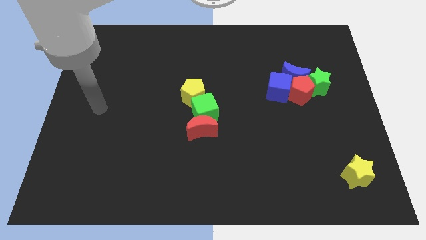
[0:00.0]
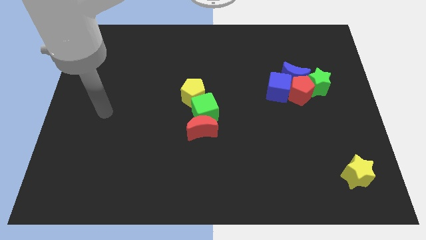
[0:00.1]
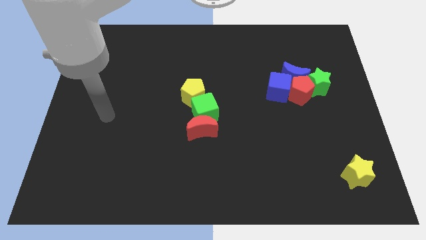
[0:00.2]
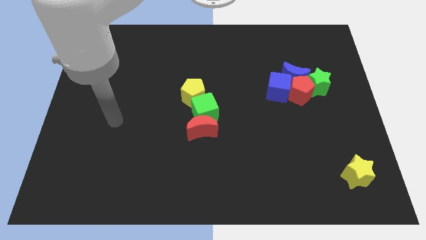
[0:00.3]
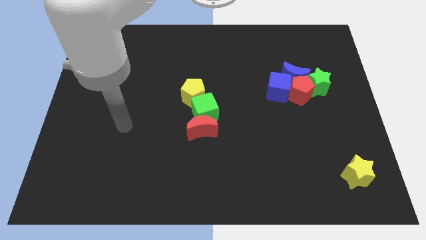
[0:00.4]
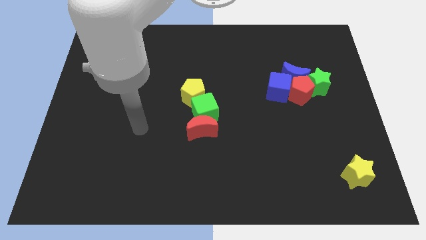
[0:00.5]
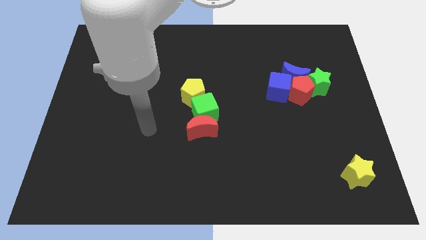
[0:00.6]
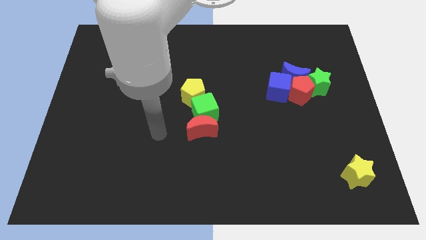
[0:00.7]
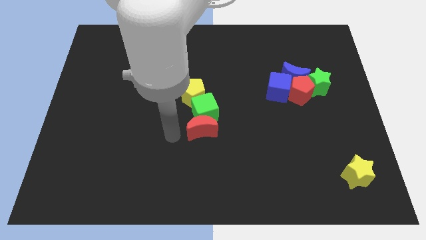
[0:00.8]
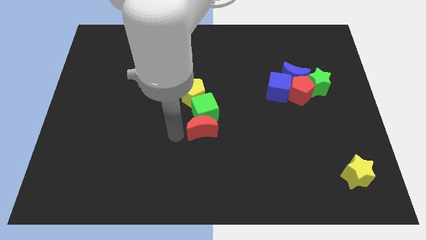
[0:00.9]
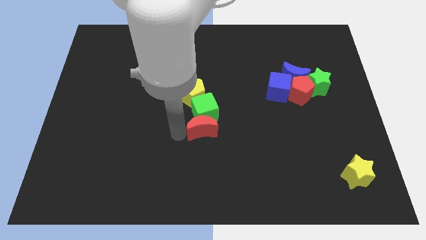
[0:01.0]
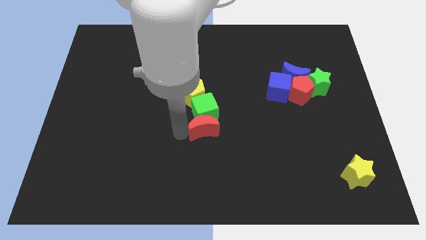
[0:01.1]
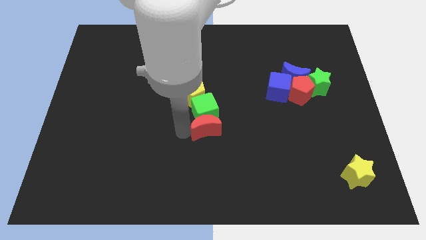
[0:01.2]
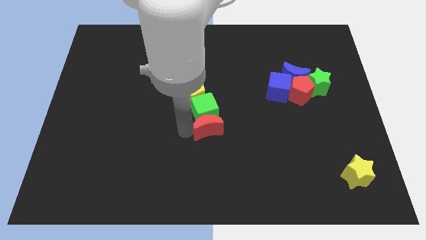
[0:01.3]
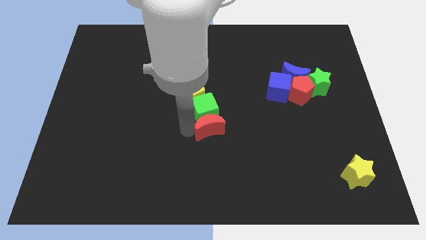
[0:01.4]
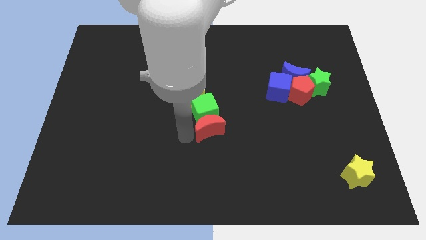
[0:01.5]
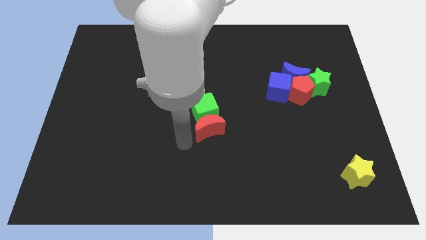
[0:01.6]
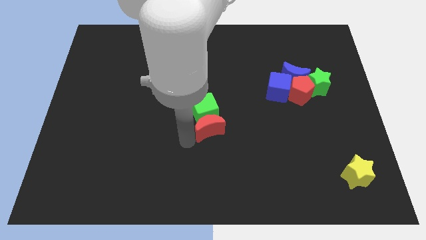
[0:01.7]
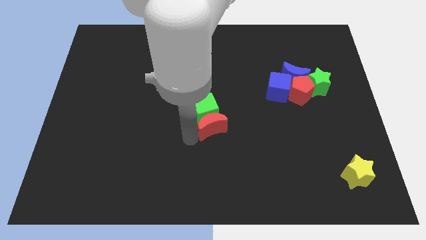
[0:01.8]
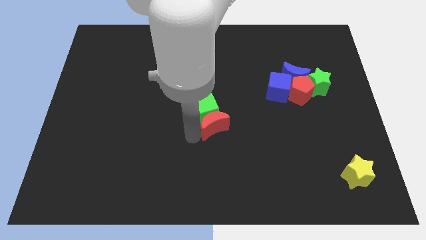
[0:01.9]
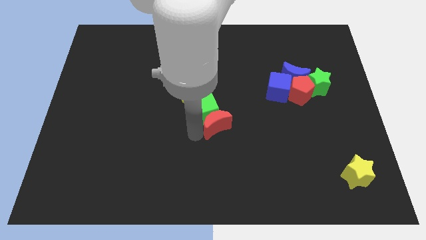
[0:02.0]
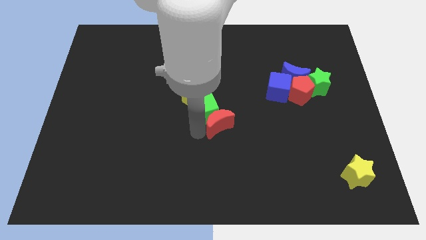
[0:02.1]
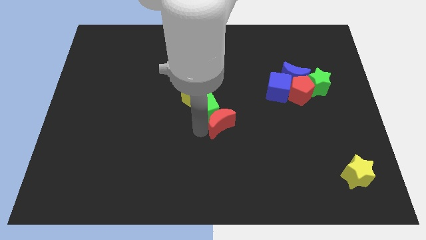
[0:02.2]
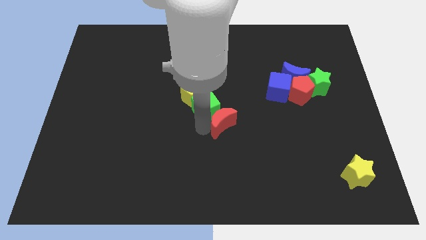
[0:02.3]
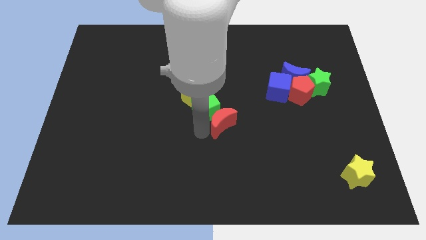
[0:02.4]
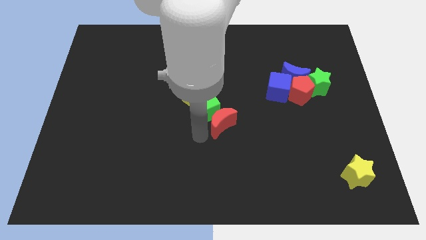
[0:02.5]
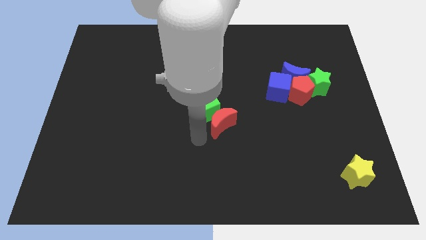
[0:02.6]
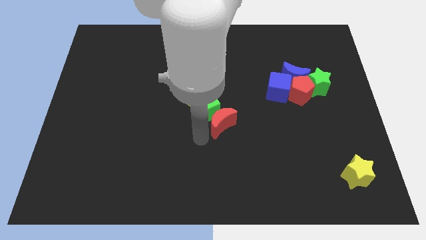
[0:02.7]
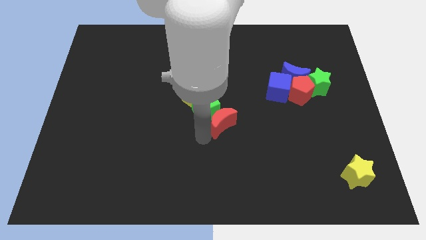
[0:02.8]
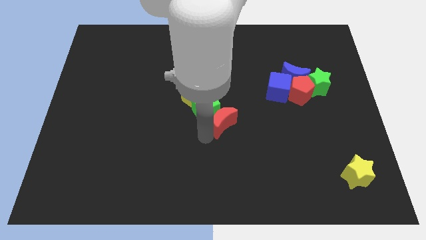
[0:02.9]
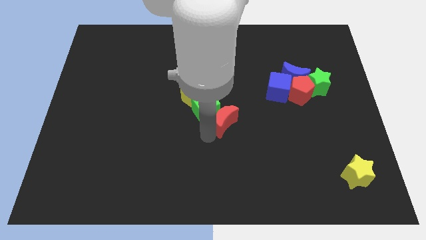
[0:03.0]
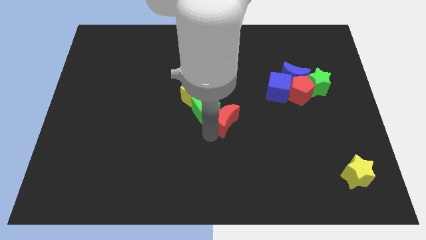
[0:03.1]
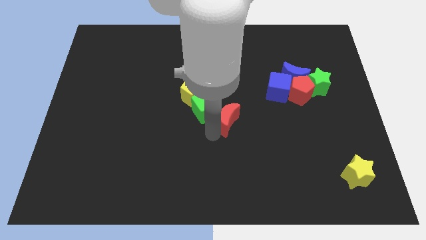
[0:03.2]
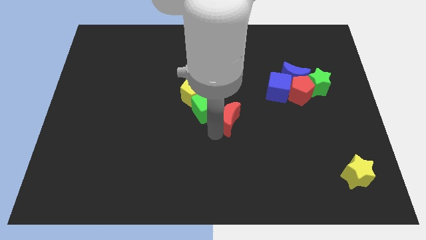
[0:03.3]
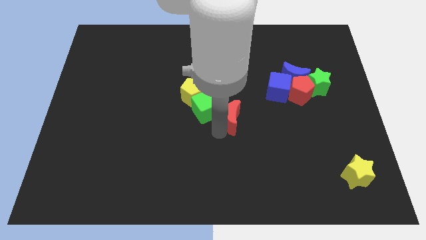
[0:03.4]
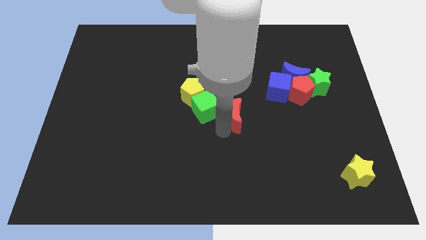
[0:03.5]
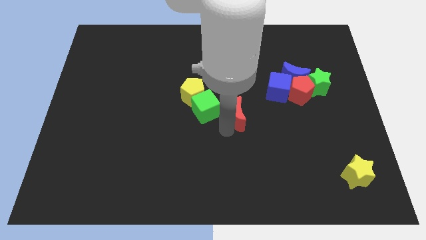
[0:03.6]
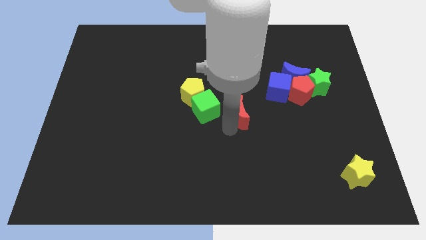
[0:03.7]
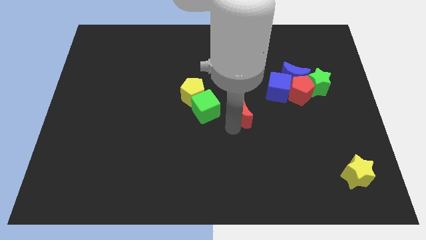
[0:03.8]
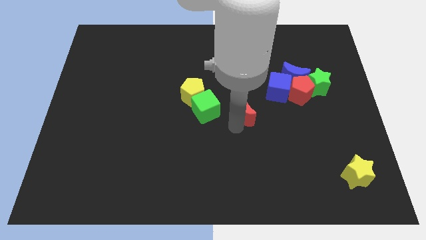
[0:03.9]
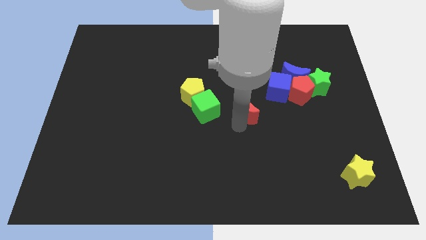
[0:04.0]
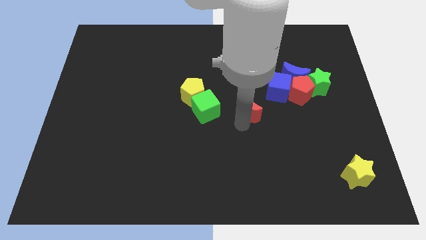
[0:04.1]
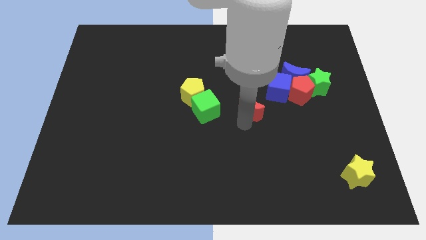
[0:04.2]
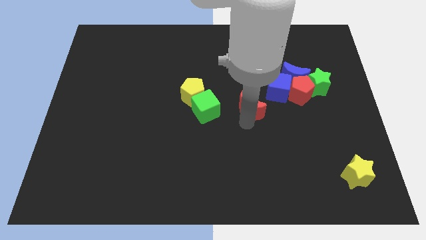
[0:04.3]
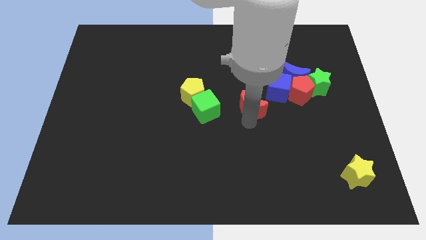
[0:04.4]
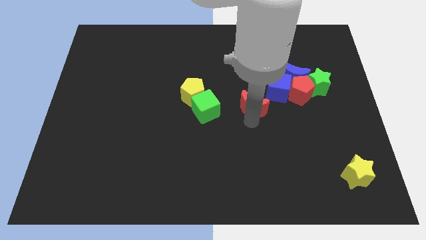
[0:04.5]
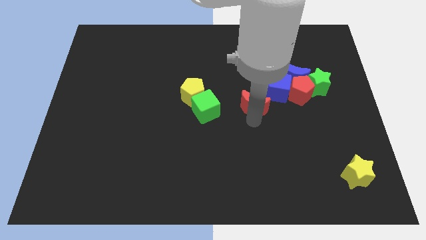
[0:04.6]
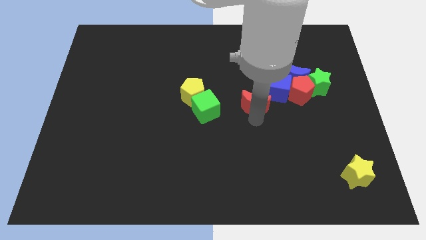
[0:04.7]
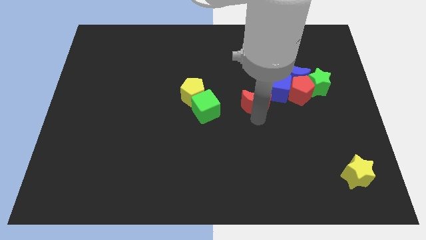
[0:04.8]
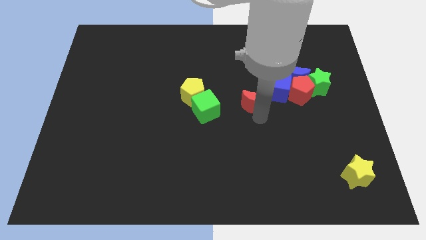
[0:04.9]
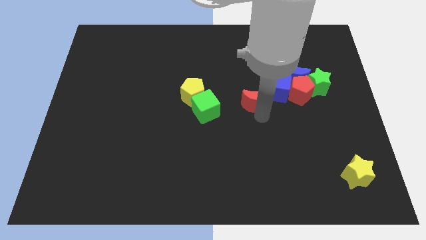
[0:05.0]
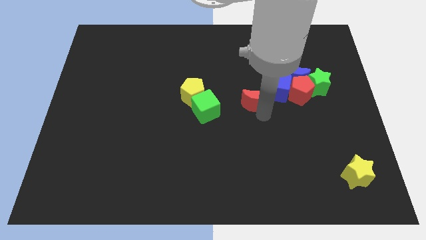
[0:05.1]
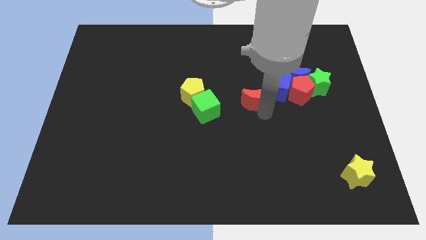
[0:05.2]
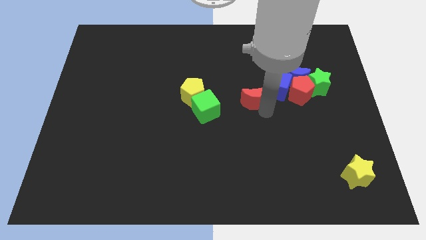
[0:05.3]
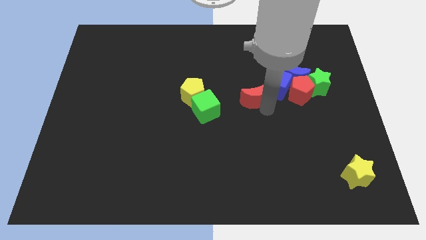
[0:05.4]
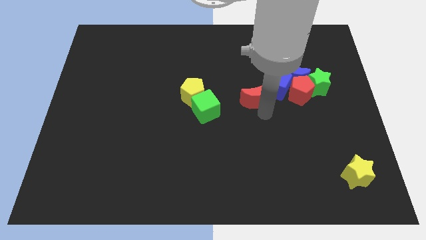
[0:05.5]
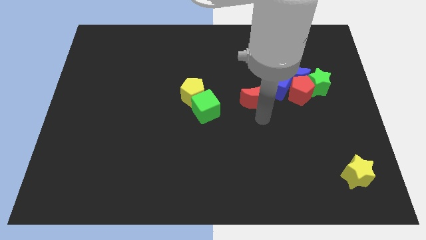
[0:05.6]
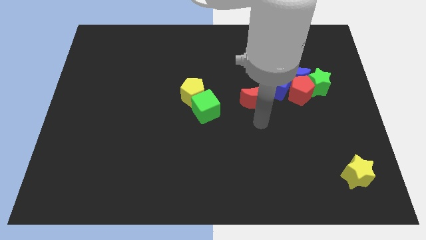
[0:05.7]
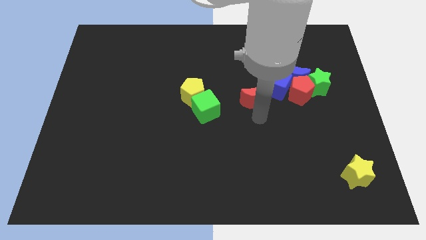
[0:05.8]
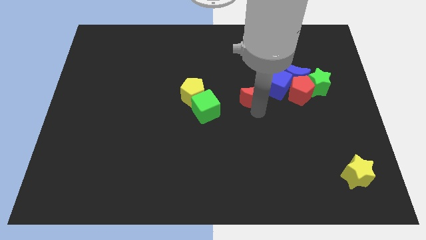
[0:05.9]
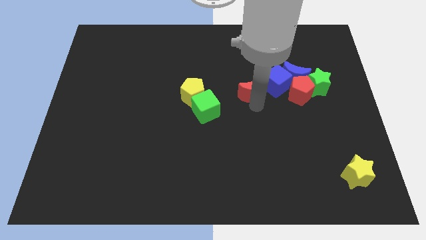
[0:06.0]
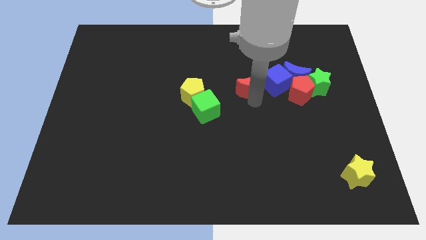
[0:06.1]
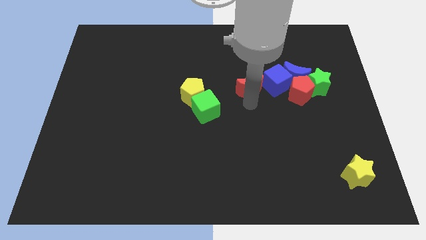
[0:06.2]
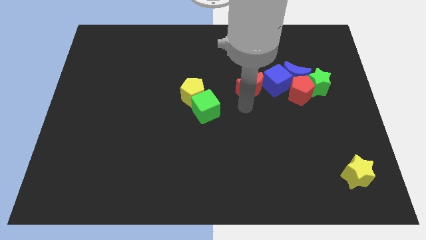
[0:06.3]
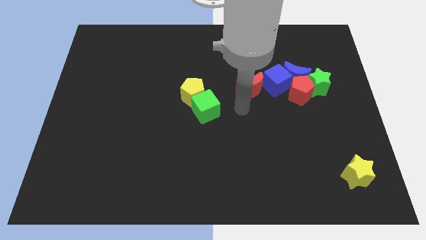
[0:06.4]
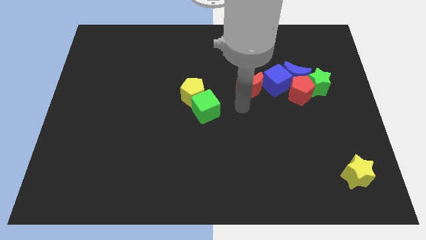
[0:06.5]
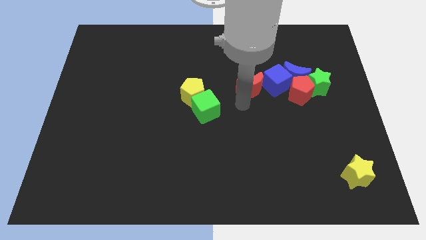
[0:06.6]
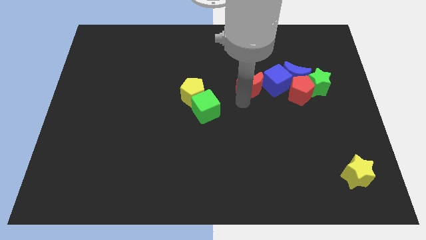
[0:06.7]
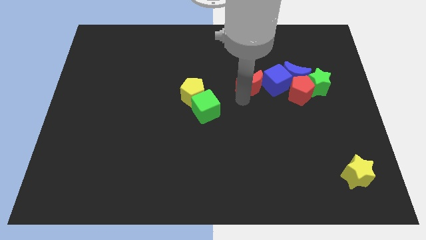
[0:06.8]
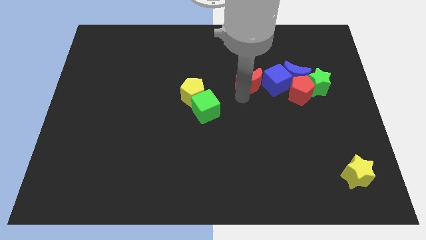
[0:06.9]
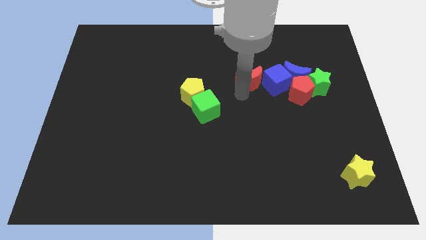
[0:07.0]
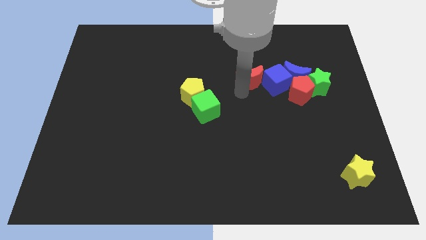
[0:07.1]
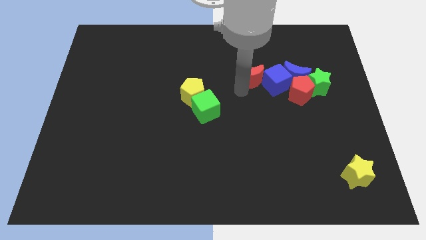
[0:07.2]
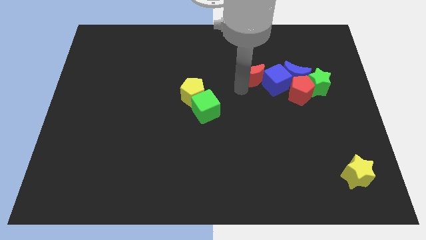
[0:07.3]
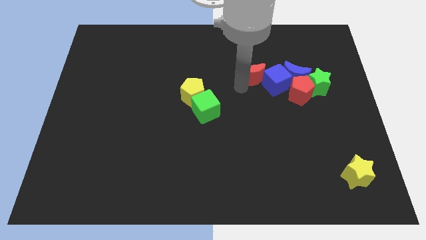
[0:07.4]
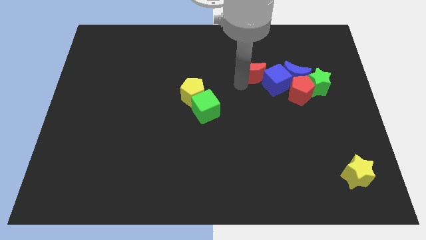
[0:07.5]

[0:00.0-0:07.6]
move the red moon diagonally up and right

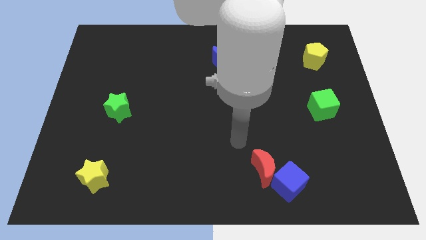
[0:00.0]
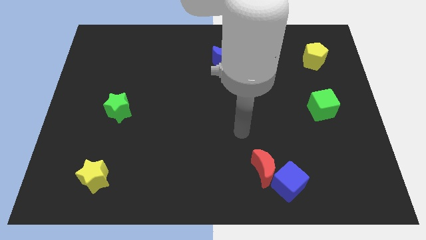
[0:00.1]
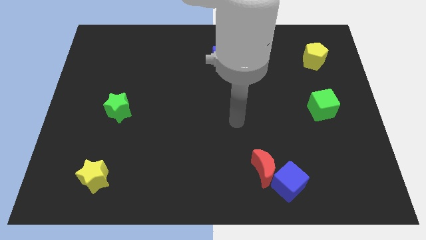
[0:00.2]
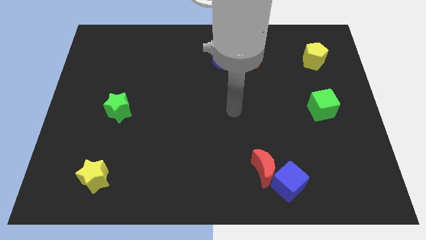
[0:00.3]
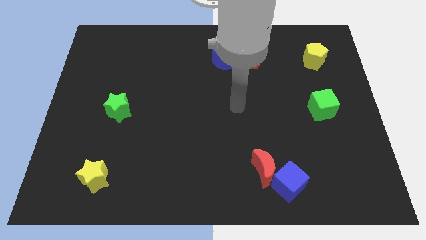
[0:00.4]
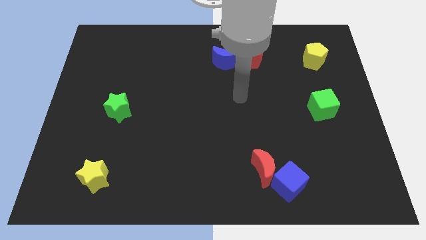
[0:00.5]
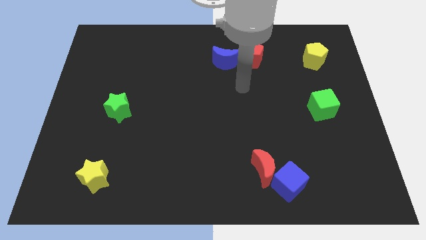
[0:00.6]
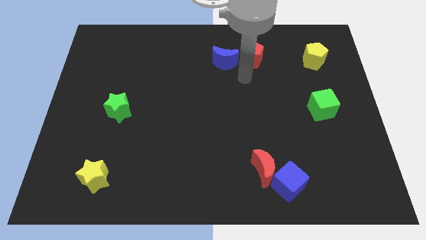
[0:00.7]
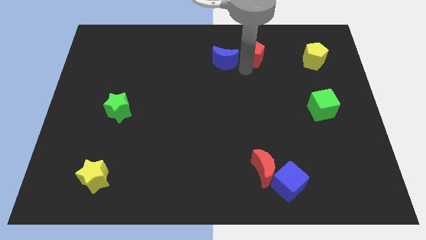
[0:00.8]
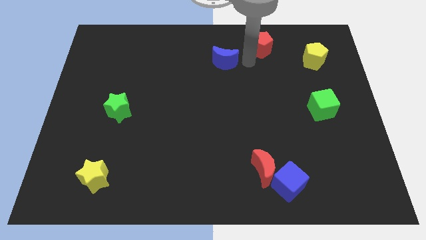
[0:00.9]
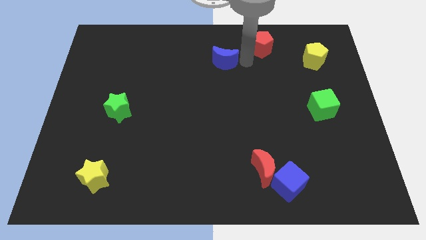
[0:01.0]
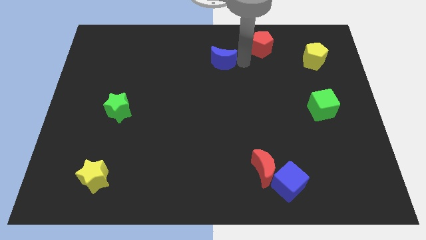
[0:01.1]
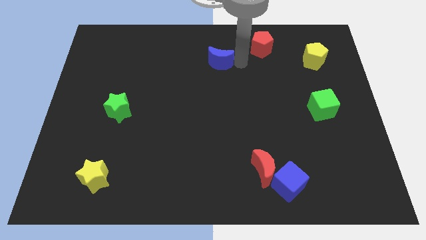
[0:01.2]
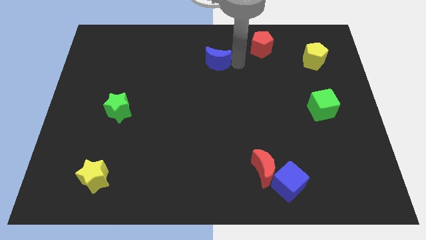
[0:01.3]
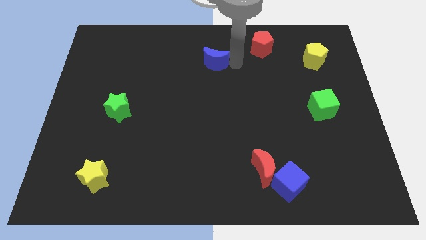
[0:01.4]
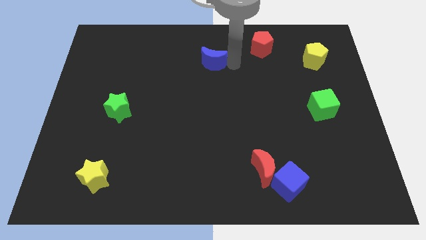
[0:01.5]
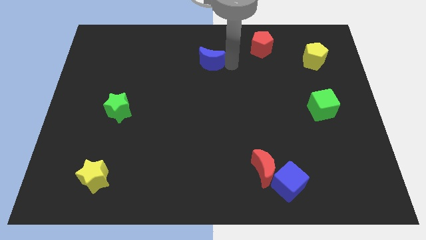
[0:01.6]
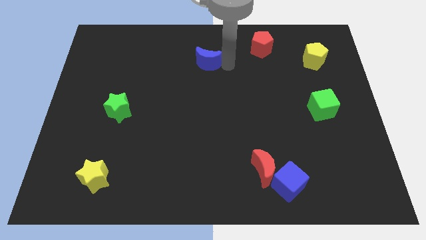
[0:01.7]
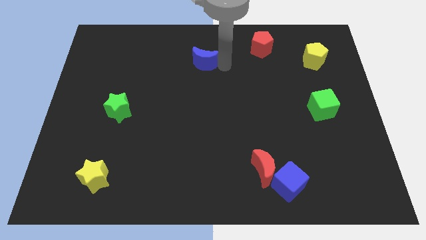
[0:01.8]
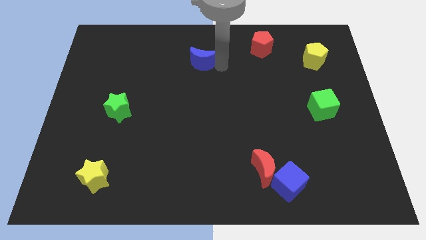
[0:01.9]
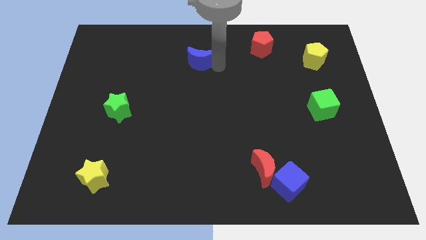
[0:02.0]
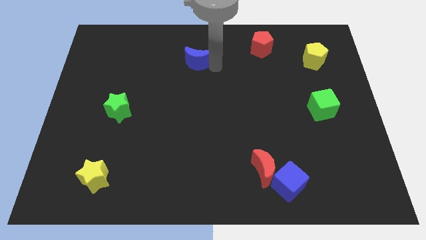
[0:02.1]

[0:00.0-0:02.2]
move the blue moon a little to the left
